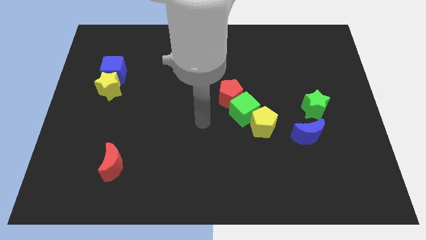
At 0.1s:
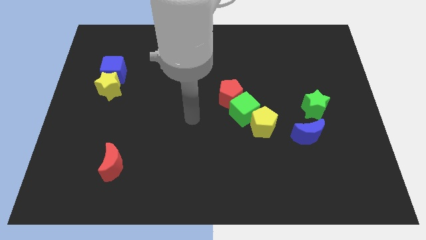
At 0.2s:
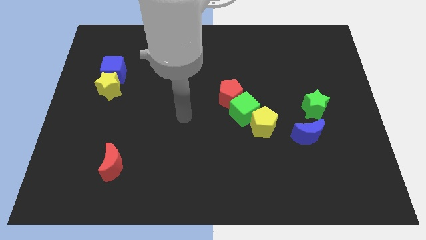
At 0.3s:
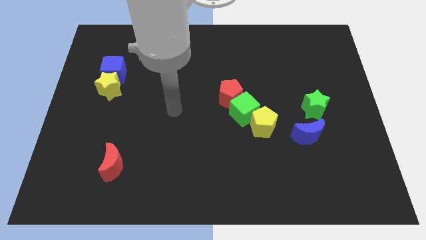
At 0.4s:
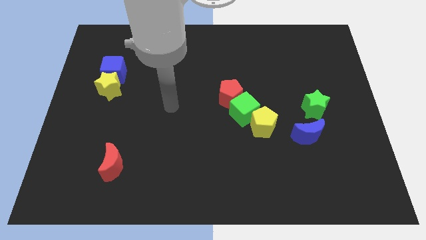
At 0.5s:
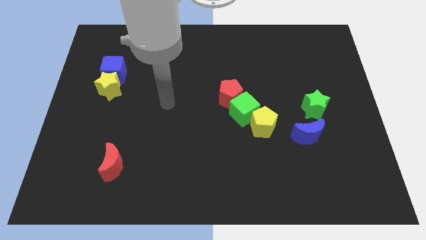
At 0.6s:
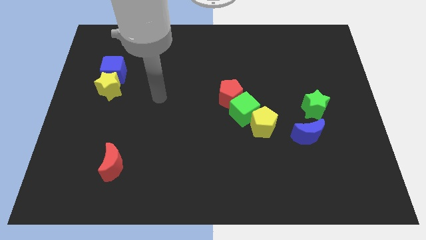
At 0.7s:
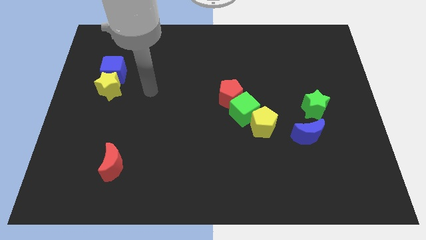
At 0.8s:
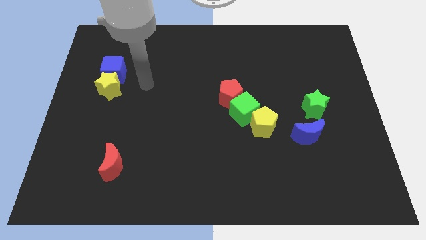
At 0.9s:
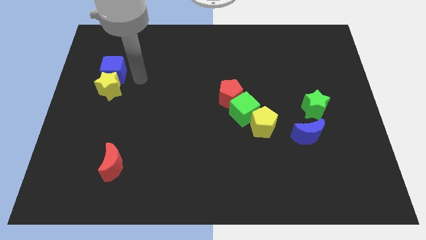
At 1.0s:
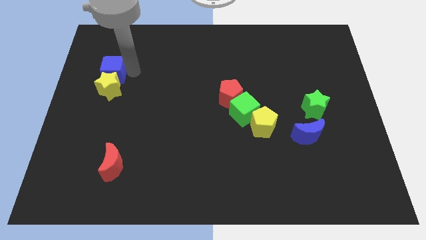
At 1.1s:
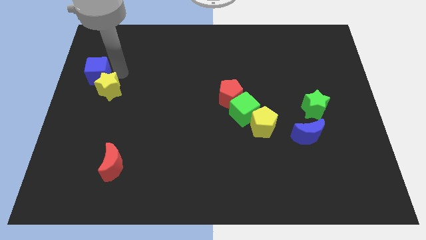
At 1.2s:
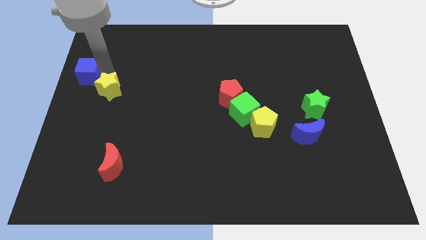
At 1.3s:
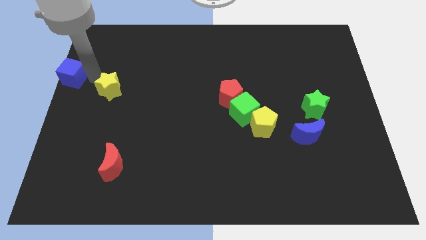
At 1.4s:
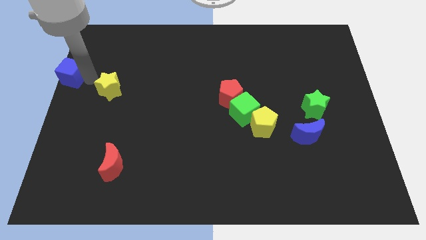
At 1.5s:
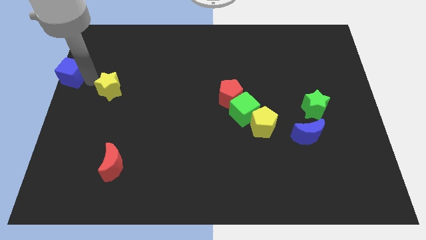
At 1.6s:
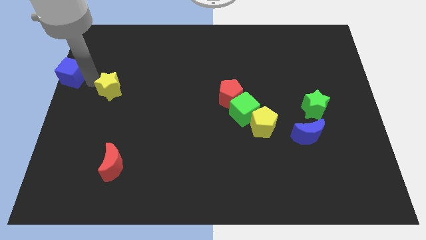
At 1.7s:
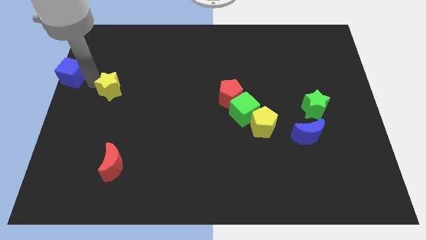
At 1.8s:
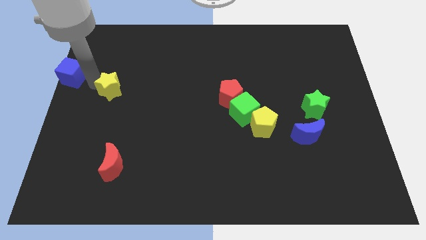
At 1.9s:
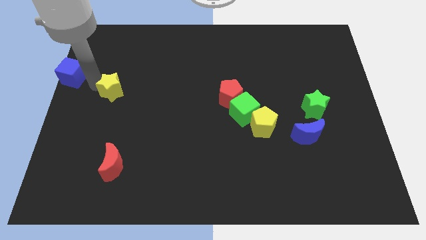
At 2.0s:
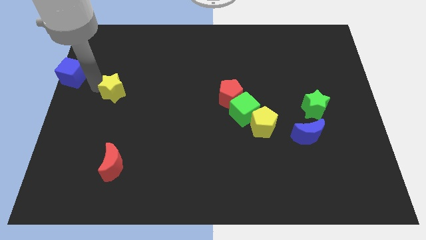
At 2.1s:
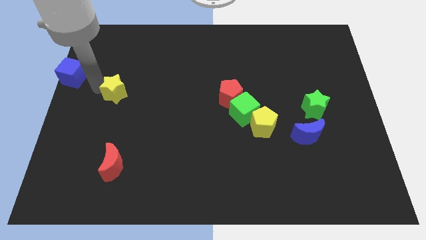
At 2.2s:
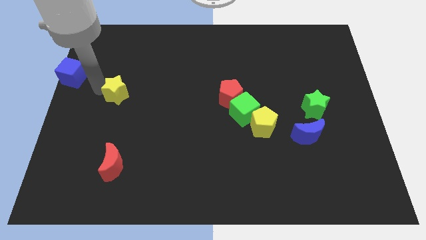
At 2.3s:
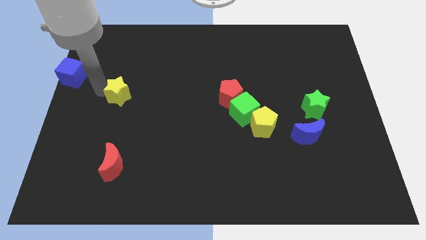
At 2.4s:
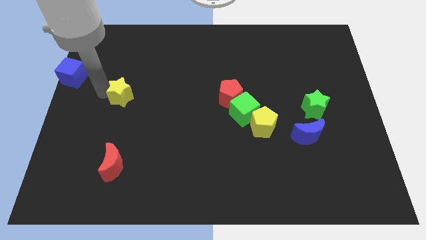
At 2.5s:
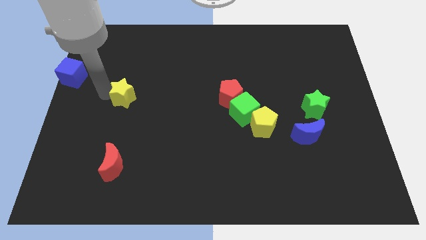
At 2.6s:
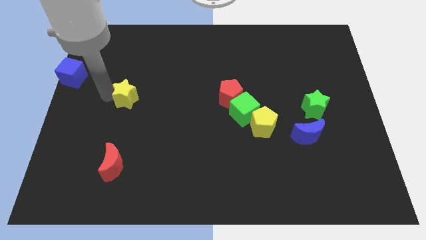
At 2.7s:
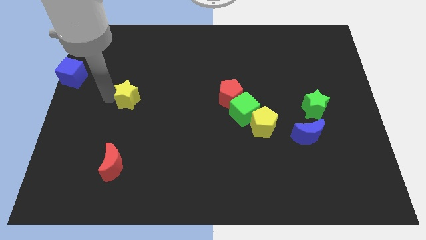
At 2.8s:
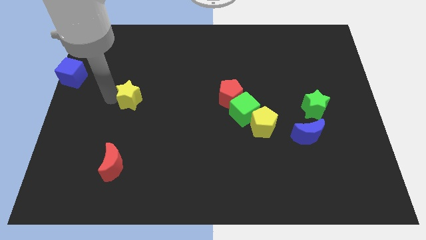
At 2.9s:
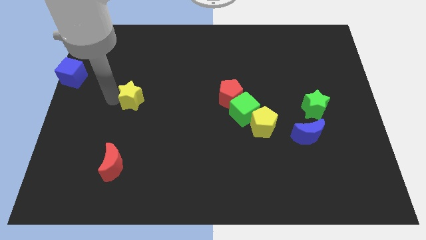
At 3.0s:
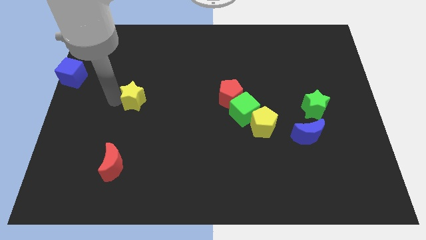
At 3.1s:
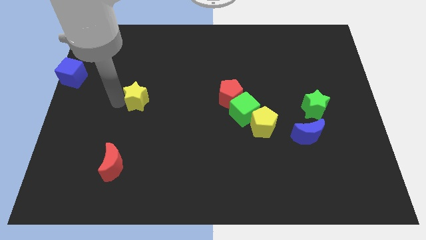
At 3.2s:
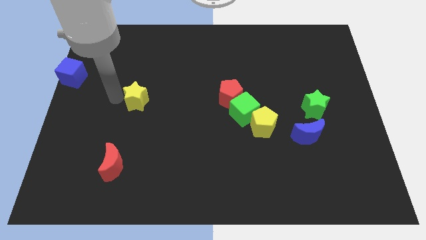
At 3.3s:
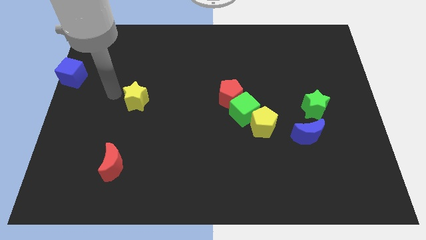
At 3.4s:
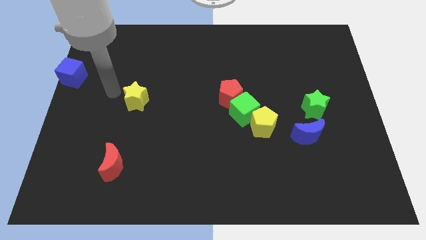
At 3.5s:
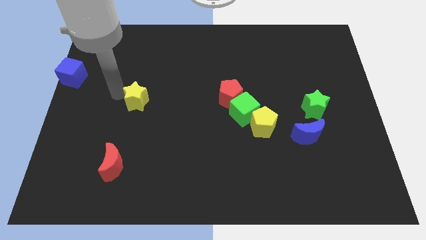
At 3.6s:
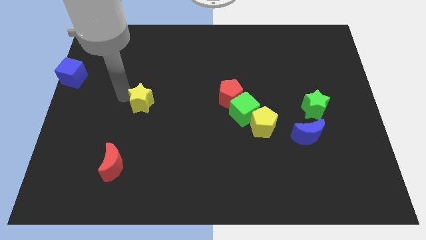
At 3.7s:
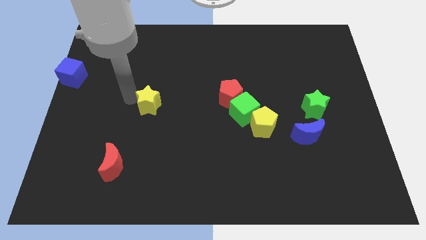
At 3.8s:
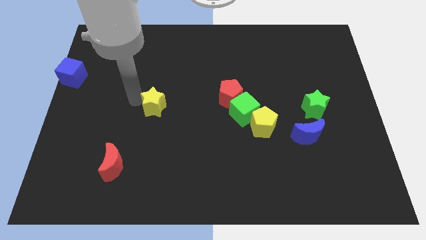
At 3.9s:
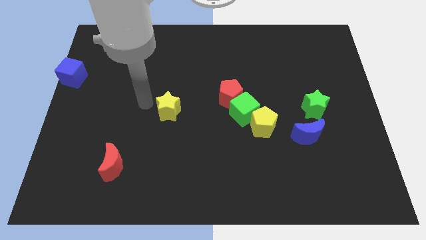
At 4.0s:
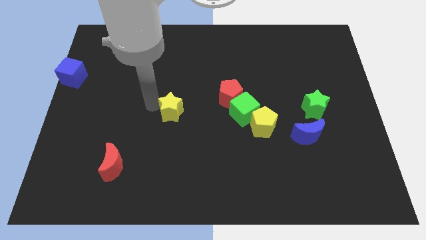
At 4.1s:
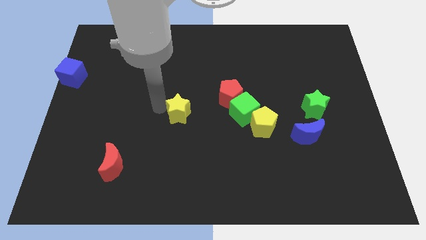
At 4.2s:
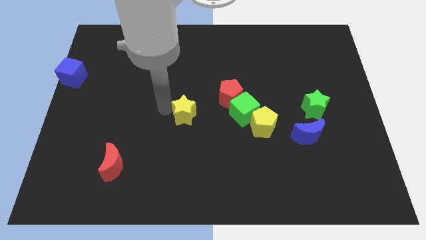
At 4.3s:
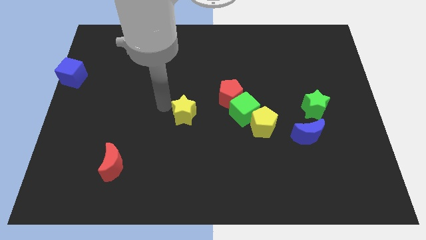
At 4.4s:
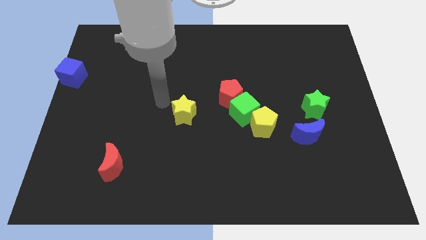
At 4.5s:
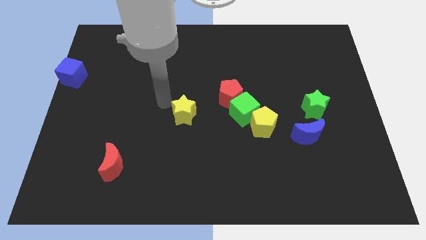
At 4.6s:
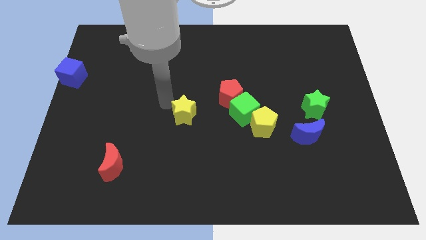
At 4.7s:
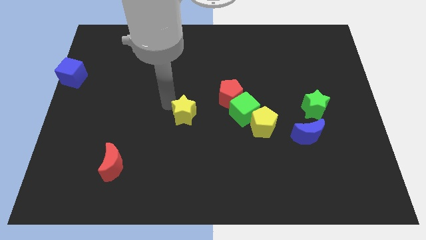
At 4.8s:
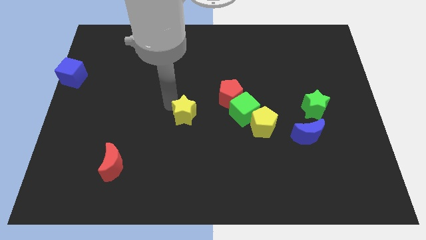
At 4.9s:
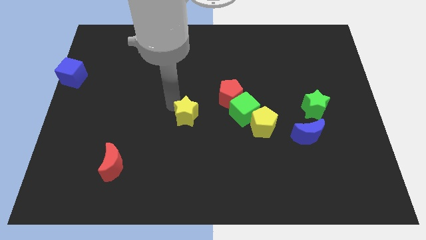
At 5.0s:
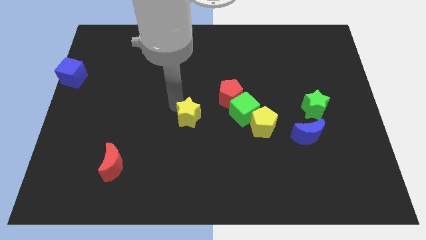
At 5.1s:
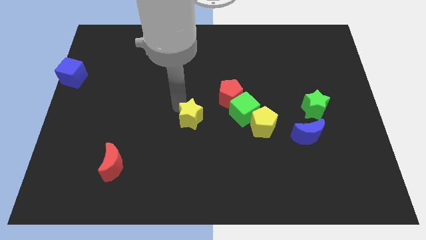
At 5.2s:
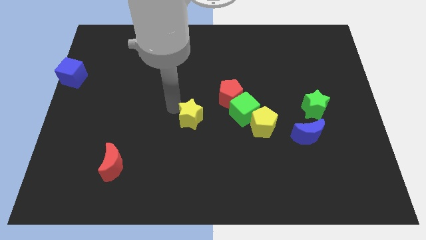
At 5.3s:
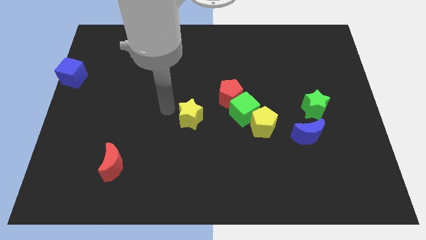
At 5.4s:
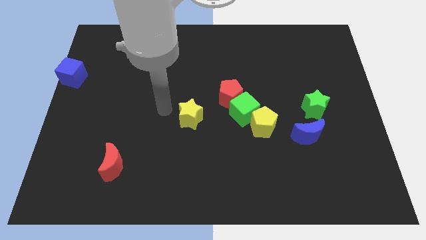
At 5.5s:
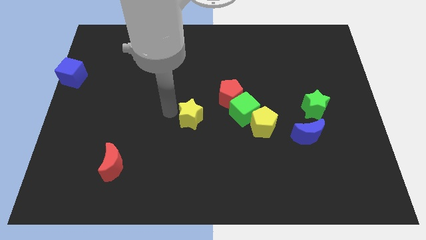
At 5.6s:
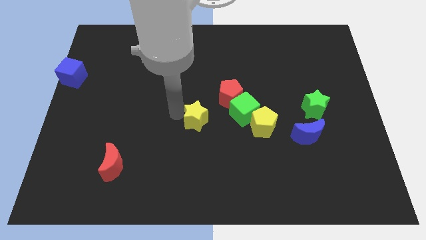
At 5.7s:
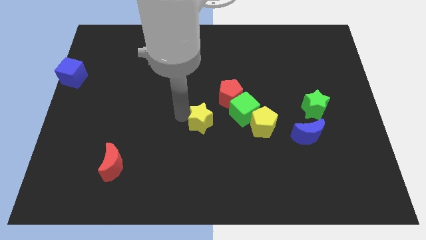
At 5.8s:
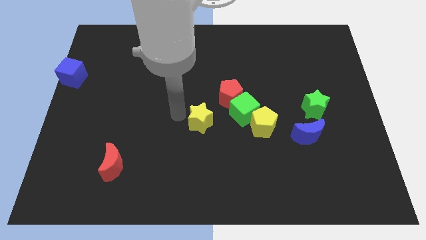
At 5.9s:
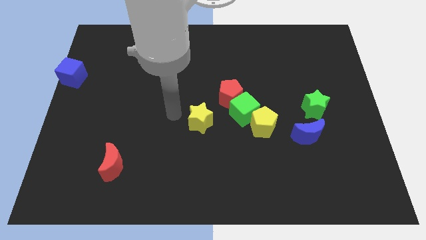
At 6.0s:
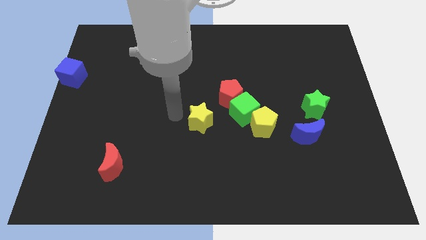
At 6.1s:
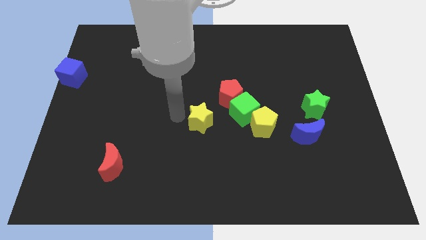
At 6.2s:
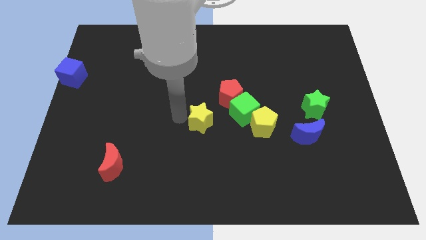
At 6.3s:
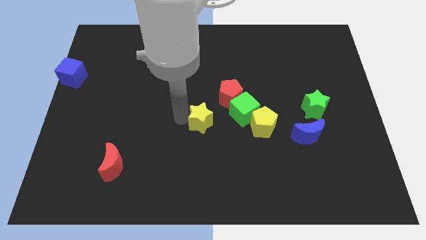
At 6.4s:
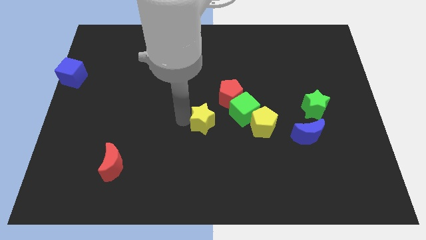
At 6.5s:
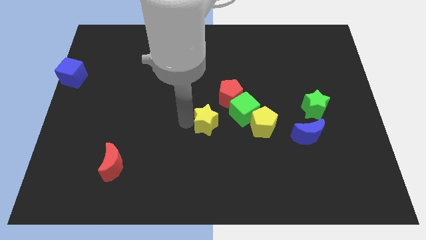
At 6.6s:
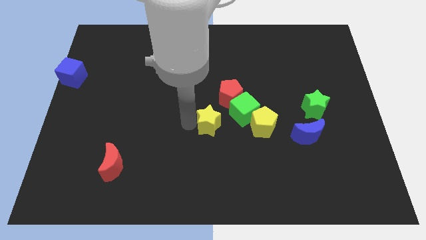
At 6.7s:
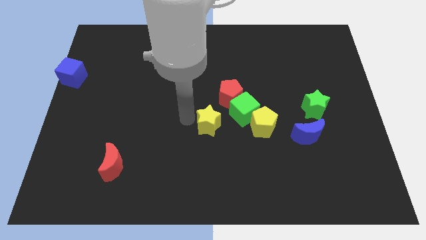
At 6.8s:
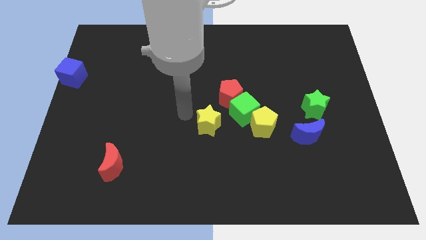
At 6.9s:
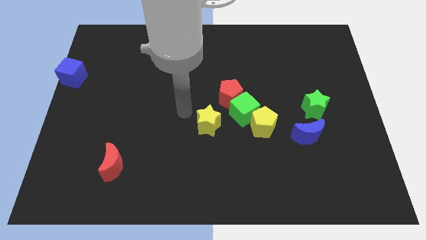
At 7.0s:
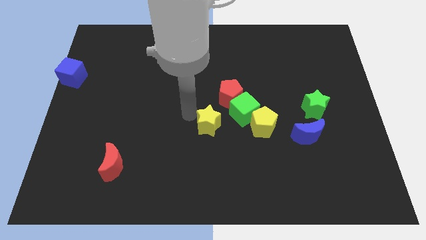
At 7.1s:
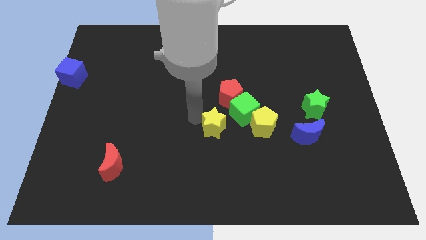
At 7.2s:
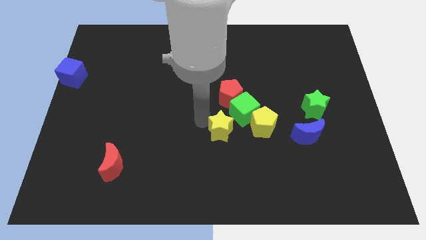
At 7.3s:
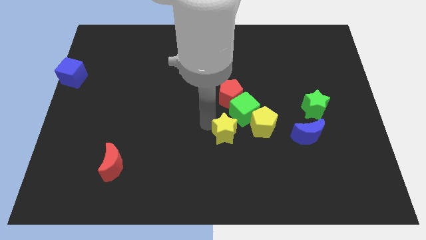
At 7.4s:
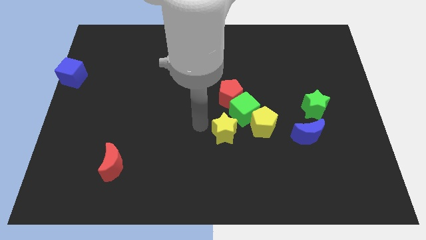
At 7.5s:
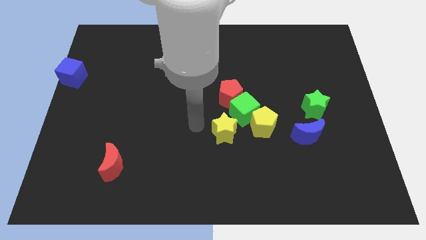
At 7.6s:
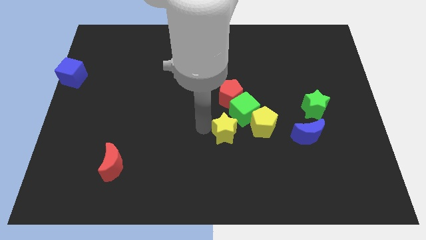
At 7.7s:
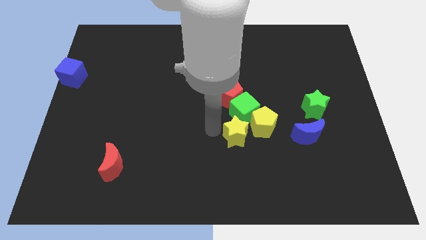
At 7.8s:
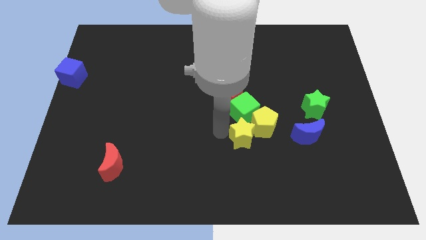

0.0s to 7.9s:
move the yellow star towards the yellow pentagon

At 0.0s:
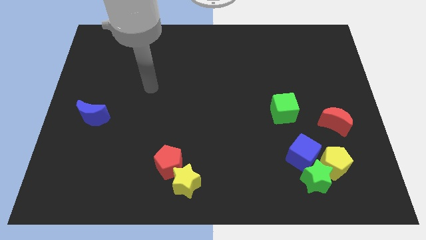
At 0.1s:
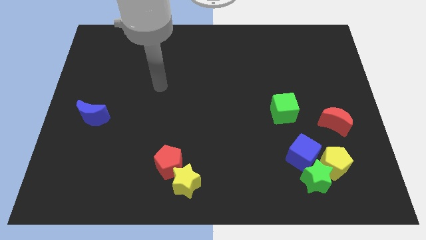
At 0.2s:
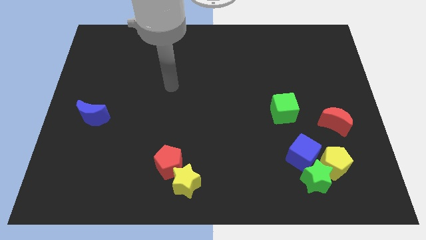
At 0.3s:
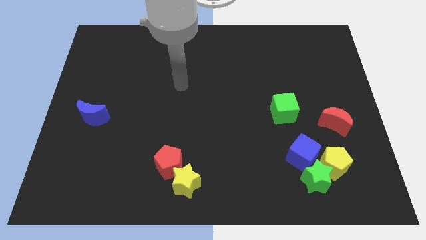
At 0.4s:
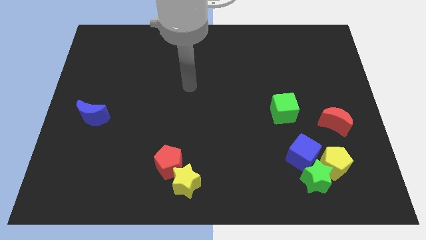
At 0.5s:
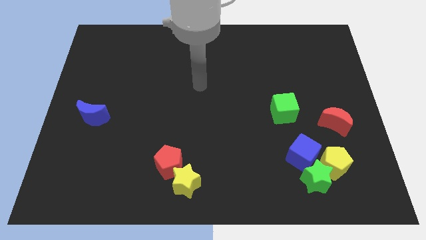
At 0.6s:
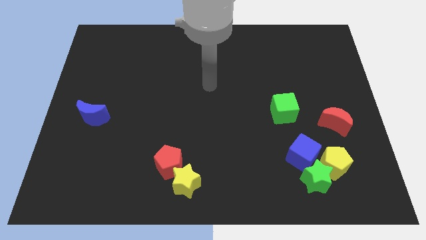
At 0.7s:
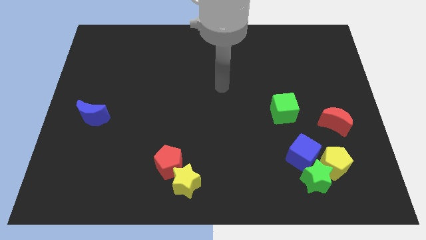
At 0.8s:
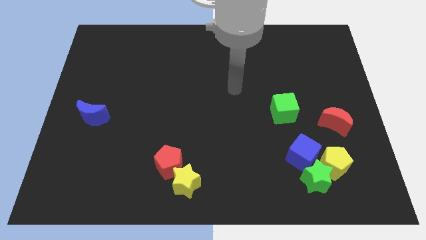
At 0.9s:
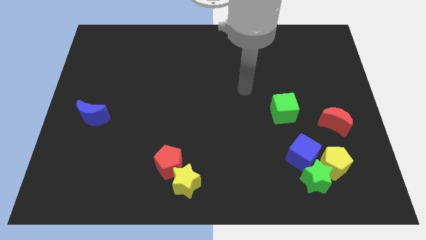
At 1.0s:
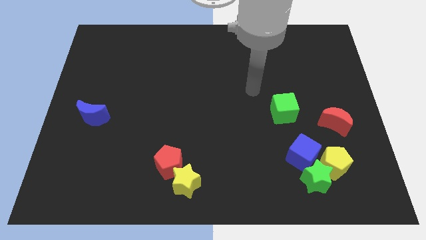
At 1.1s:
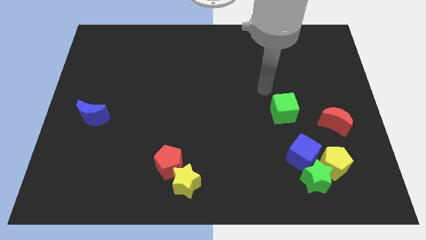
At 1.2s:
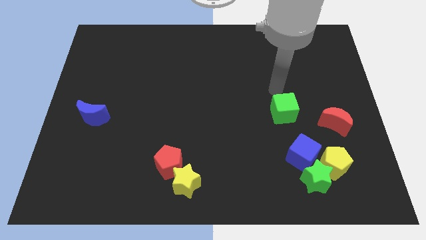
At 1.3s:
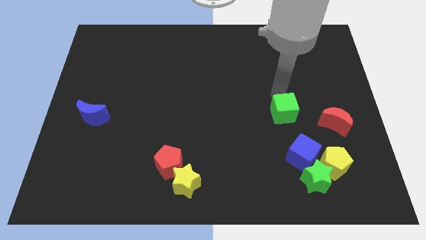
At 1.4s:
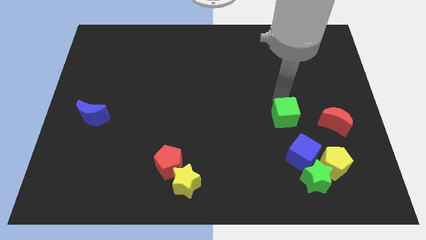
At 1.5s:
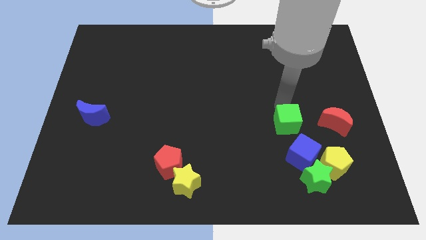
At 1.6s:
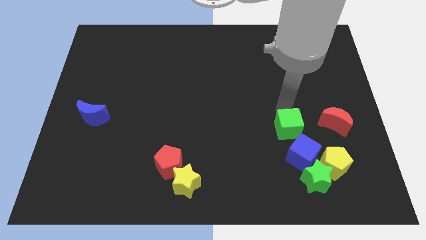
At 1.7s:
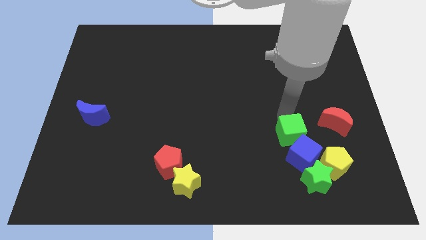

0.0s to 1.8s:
push the green cube close to the blue cube
